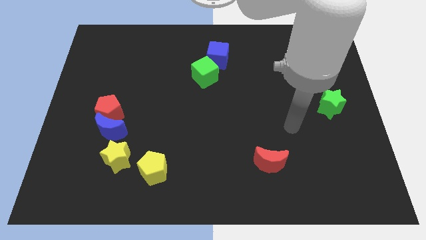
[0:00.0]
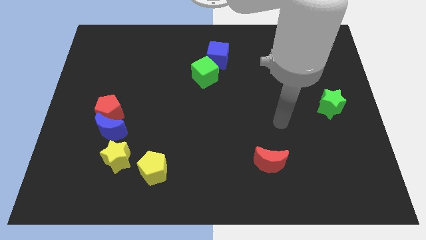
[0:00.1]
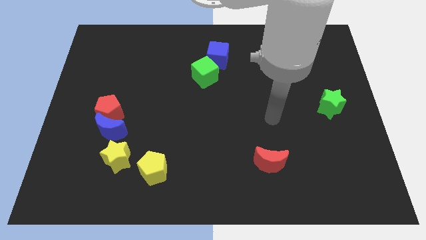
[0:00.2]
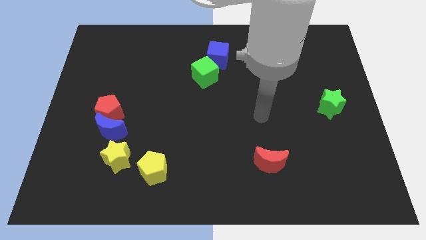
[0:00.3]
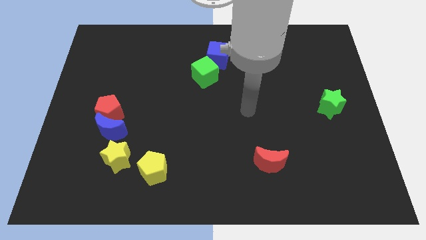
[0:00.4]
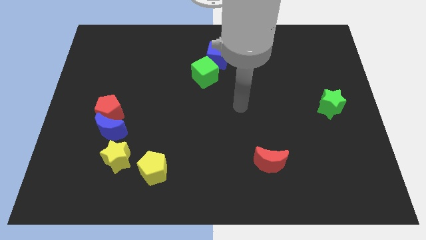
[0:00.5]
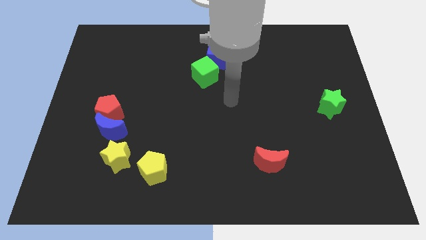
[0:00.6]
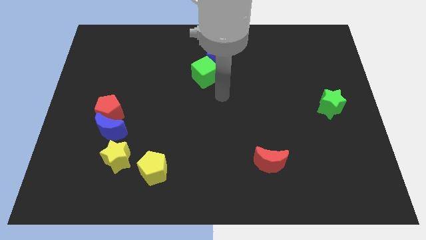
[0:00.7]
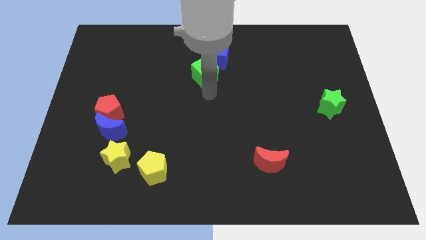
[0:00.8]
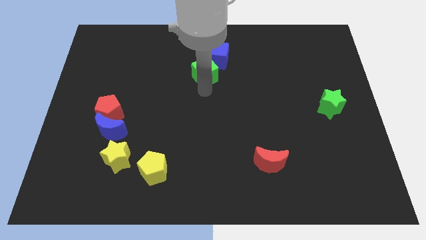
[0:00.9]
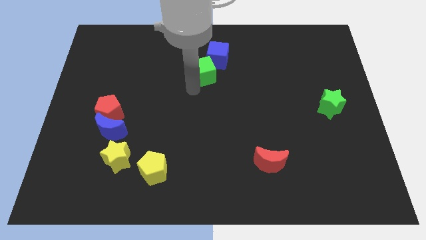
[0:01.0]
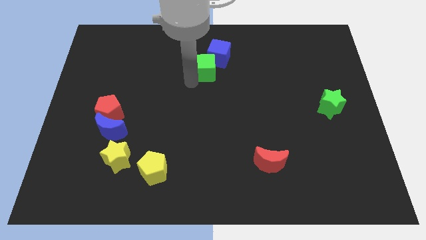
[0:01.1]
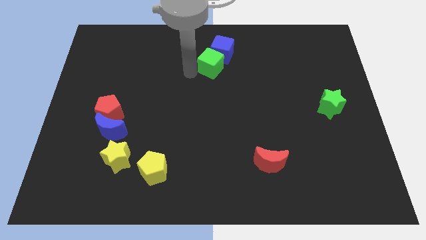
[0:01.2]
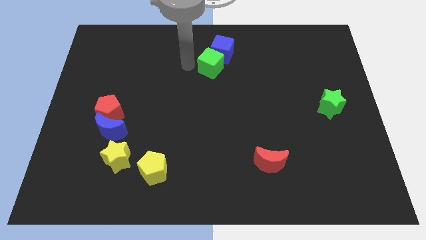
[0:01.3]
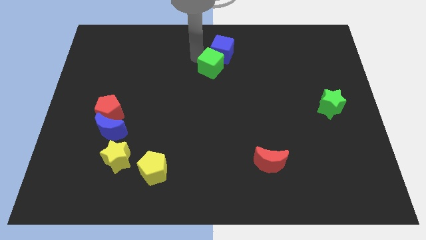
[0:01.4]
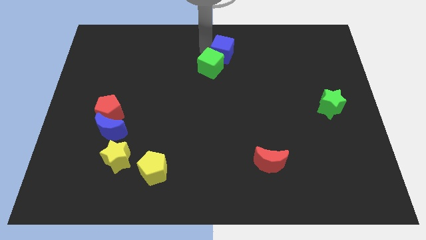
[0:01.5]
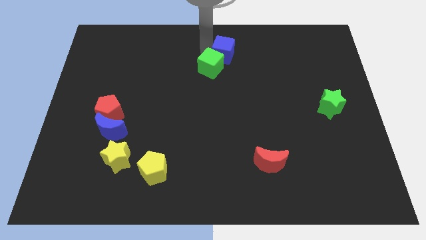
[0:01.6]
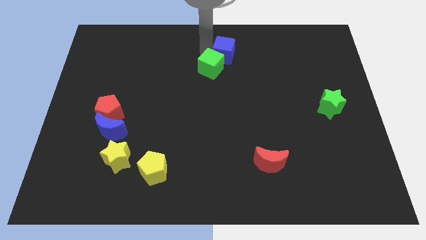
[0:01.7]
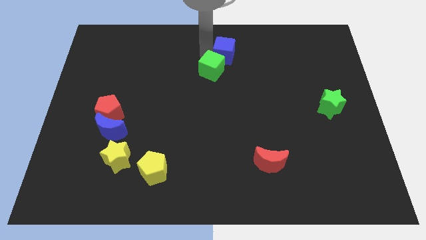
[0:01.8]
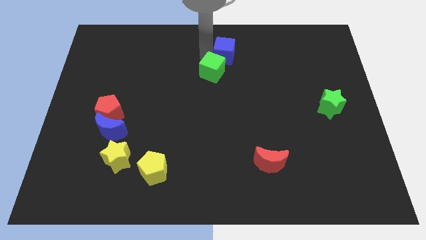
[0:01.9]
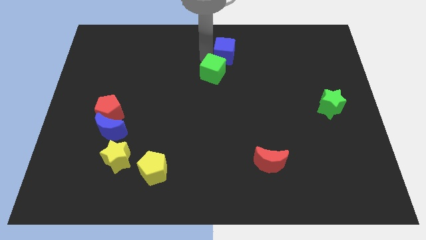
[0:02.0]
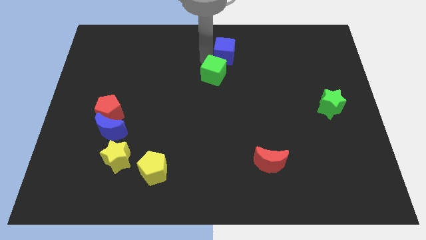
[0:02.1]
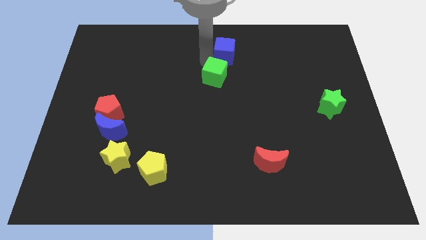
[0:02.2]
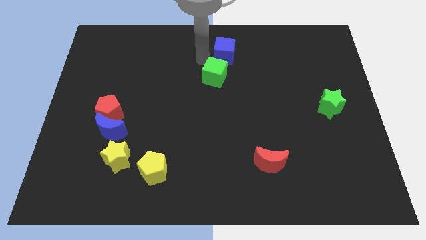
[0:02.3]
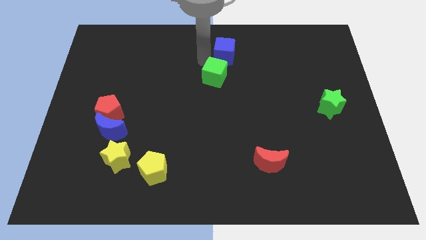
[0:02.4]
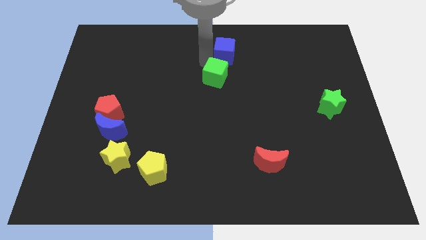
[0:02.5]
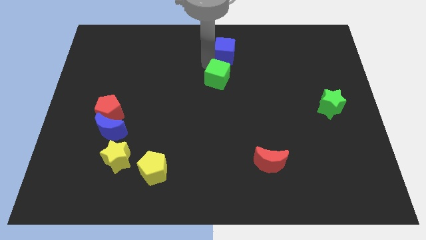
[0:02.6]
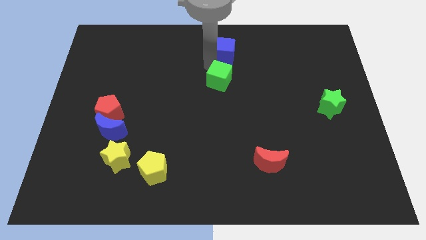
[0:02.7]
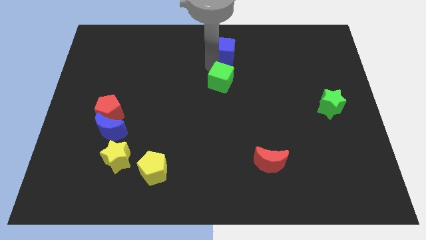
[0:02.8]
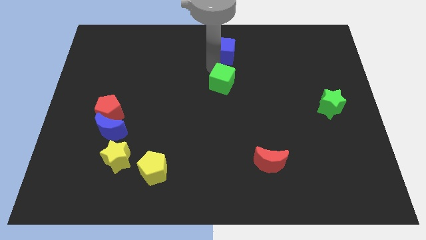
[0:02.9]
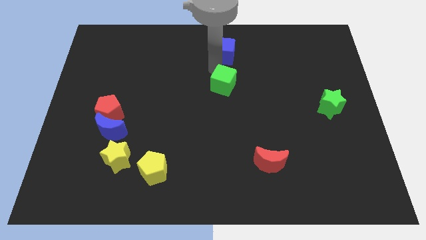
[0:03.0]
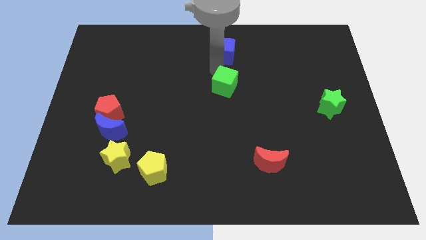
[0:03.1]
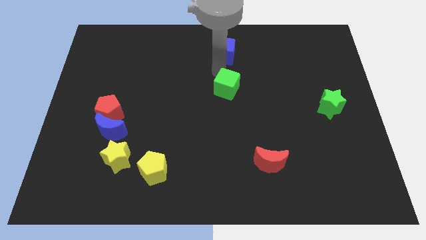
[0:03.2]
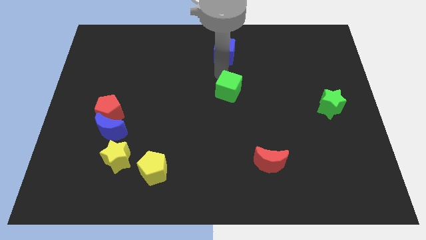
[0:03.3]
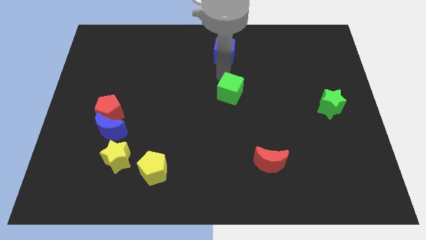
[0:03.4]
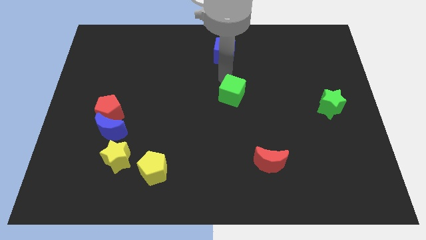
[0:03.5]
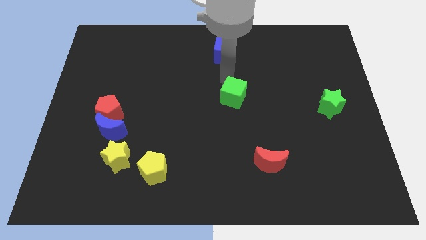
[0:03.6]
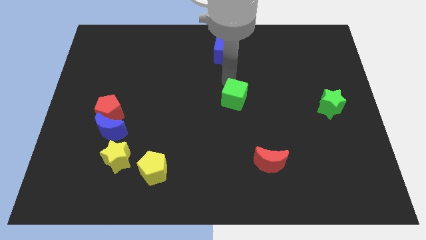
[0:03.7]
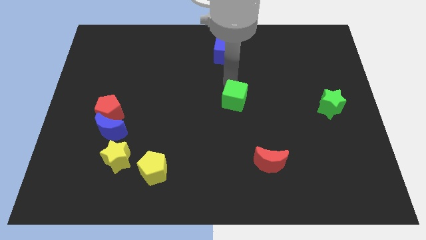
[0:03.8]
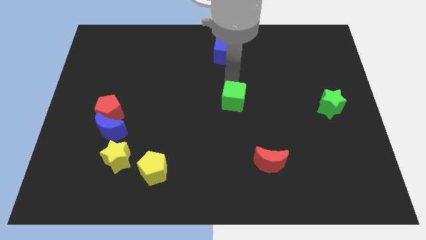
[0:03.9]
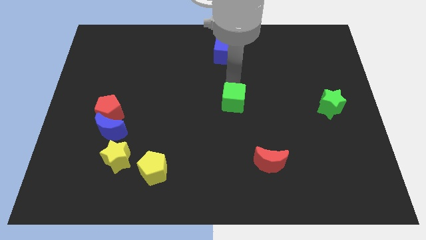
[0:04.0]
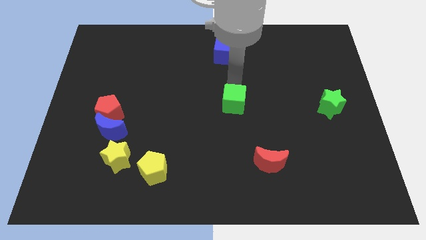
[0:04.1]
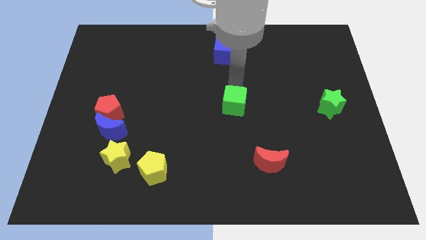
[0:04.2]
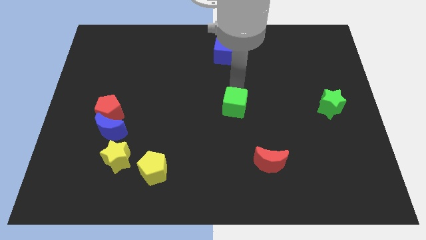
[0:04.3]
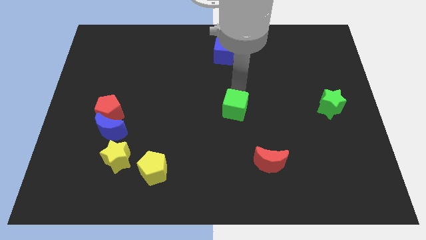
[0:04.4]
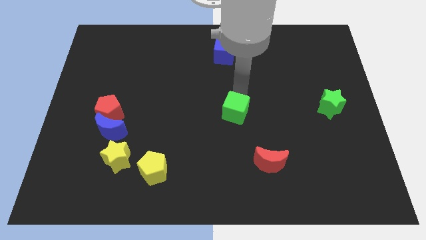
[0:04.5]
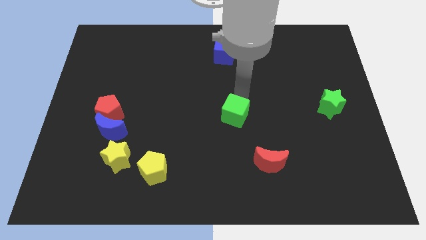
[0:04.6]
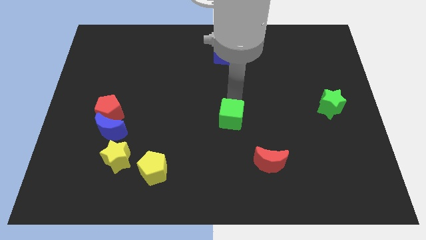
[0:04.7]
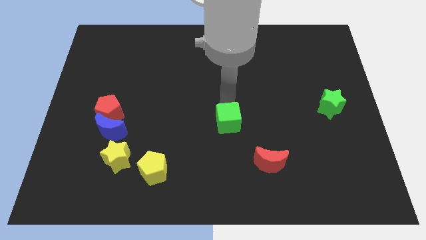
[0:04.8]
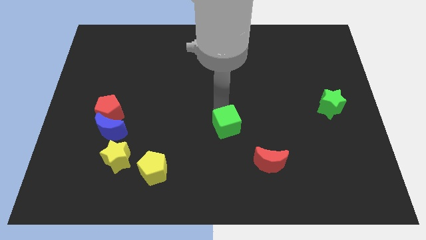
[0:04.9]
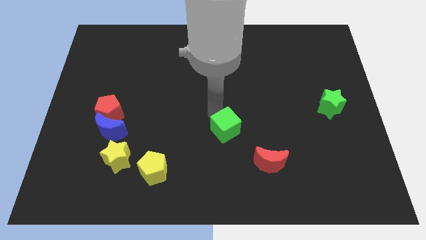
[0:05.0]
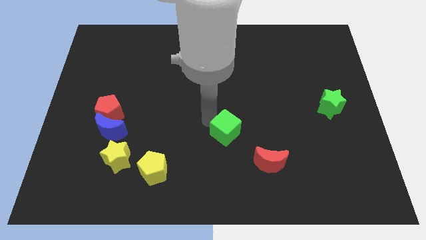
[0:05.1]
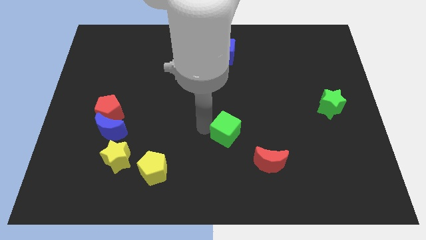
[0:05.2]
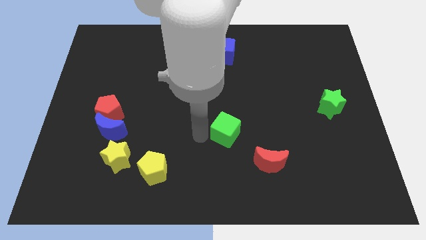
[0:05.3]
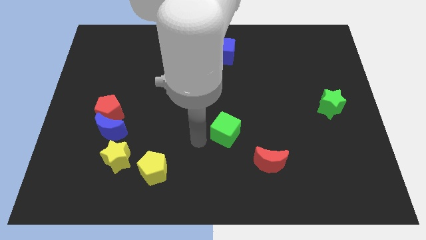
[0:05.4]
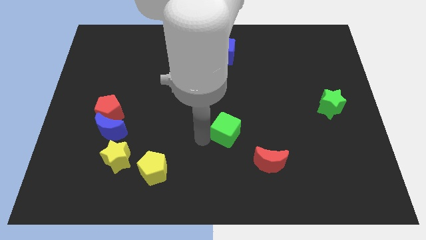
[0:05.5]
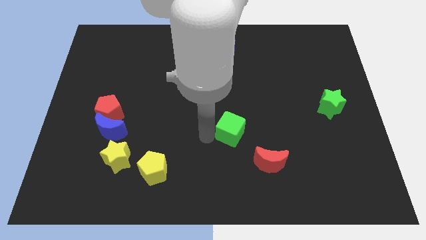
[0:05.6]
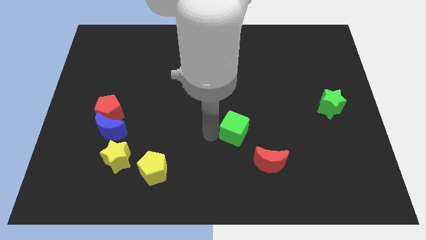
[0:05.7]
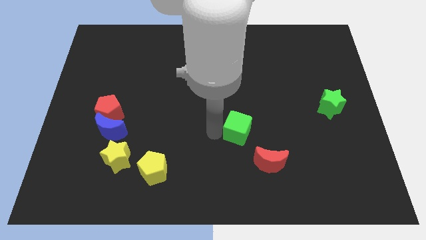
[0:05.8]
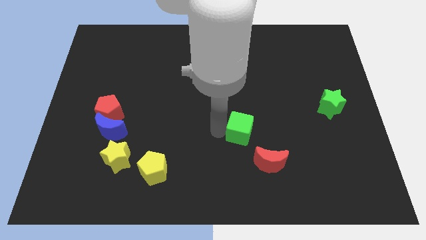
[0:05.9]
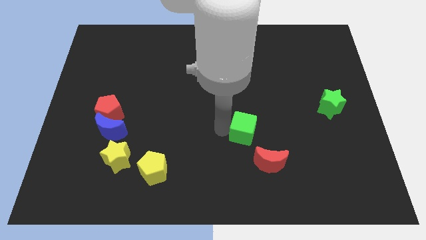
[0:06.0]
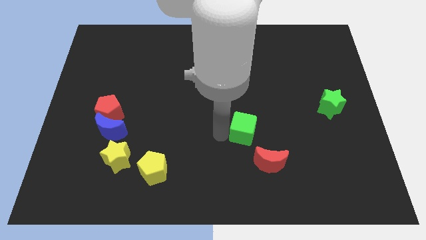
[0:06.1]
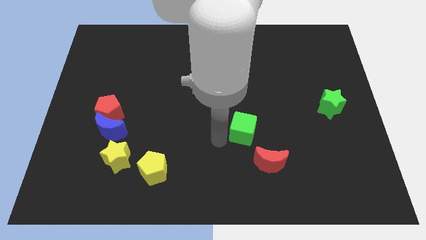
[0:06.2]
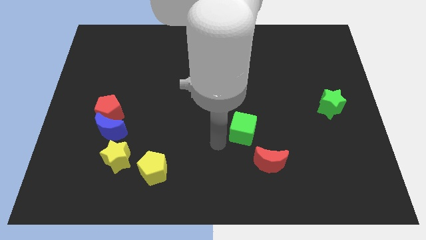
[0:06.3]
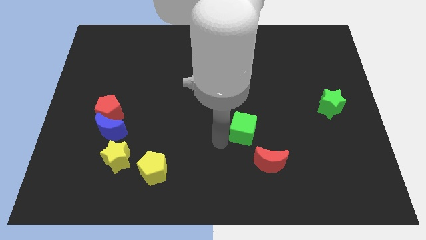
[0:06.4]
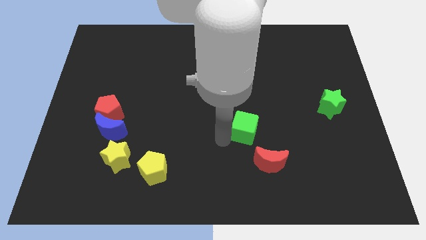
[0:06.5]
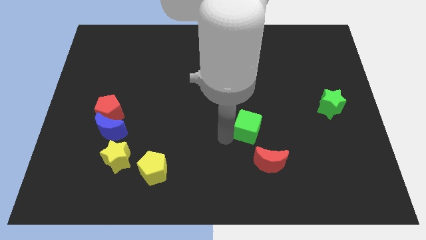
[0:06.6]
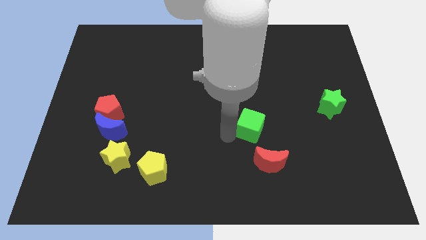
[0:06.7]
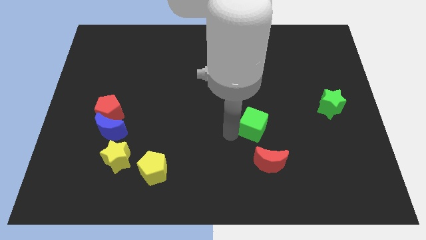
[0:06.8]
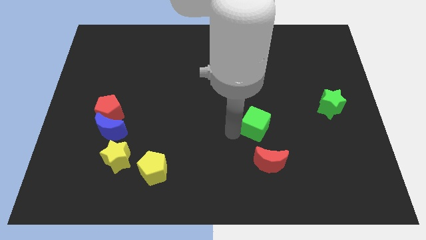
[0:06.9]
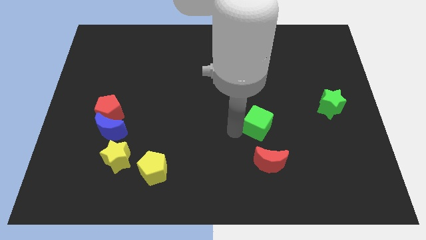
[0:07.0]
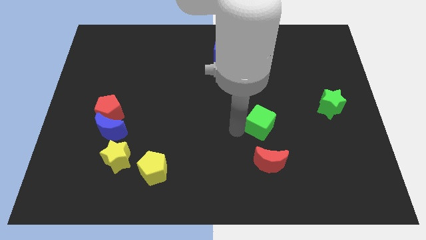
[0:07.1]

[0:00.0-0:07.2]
push the green cube downwards and then to the right

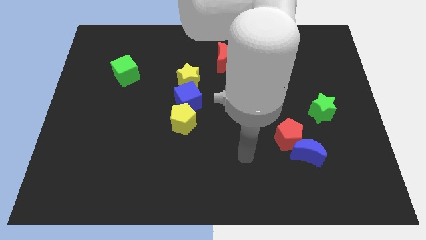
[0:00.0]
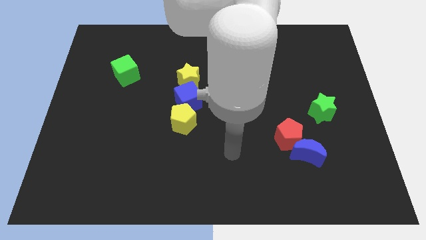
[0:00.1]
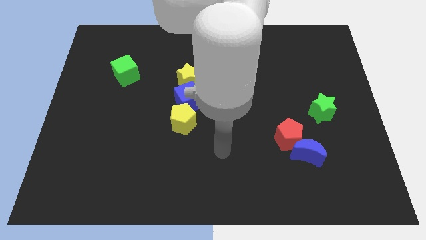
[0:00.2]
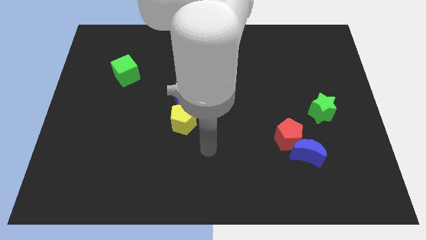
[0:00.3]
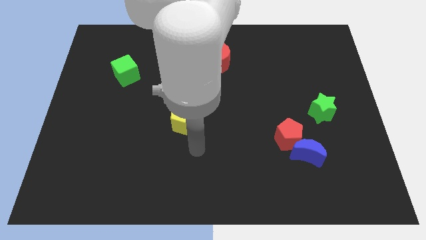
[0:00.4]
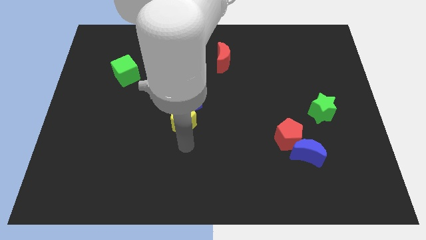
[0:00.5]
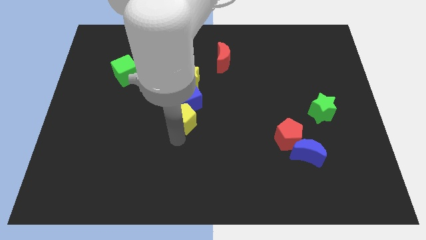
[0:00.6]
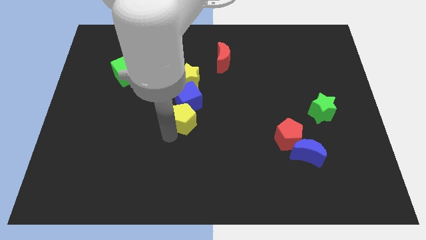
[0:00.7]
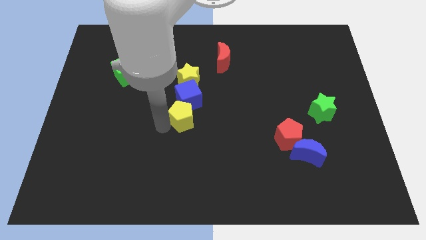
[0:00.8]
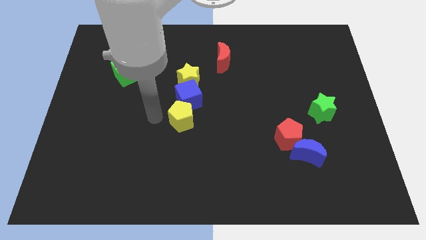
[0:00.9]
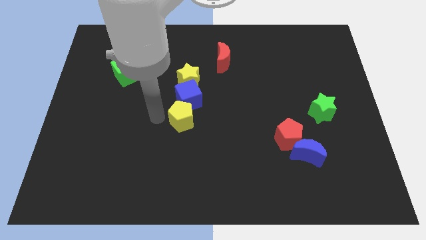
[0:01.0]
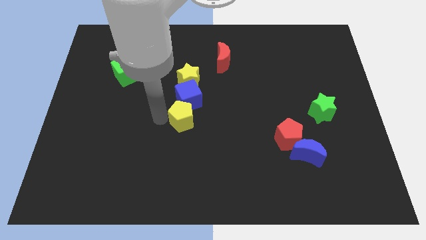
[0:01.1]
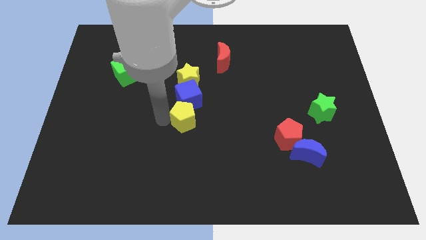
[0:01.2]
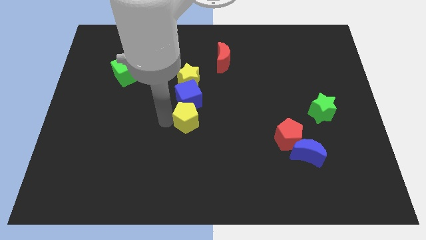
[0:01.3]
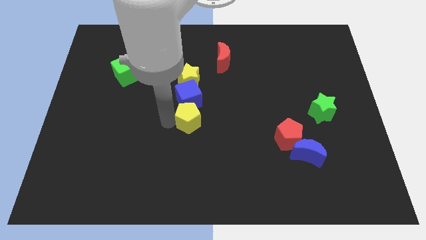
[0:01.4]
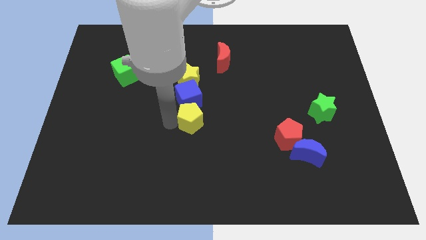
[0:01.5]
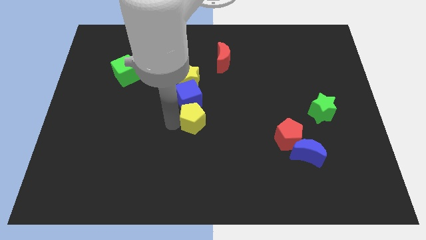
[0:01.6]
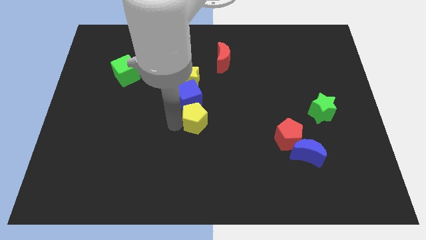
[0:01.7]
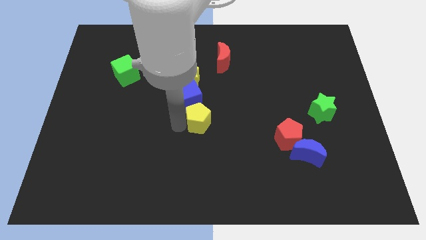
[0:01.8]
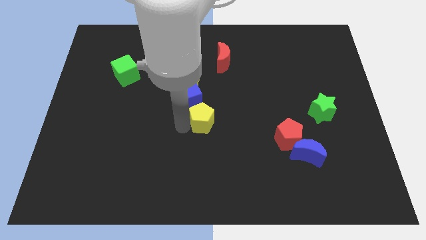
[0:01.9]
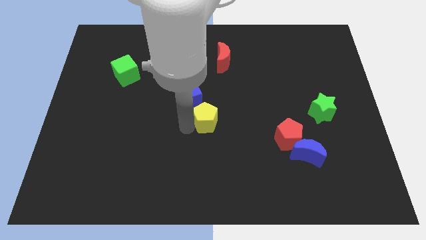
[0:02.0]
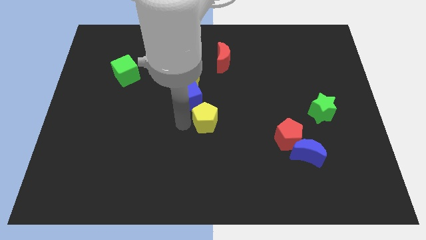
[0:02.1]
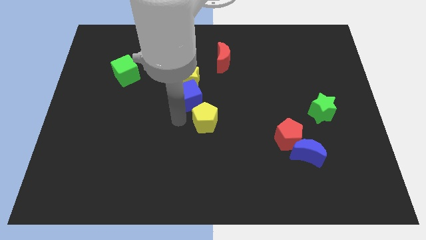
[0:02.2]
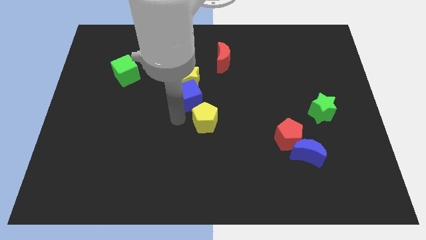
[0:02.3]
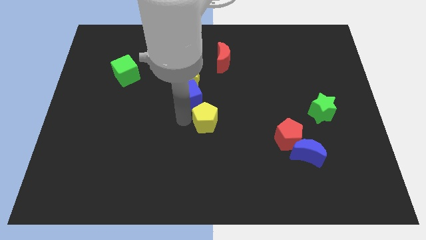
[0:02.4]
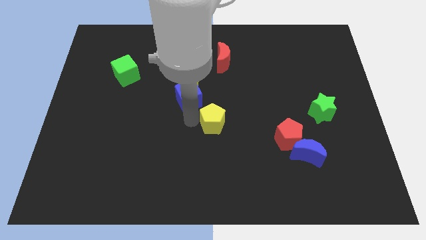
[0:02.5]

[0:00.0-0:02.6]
push the yellow pentagon right slightly
